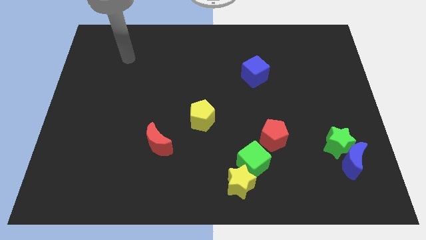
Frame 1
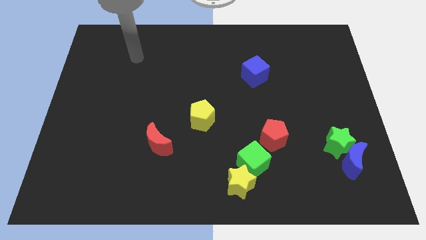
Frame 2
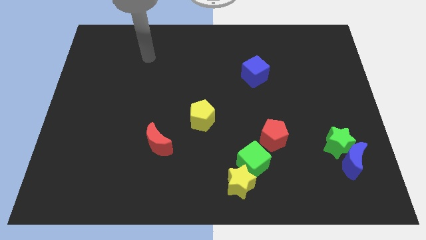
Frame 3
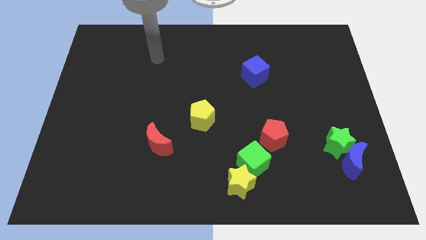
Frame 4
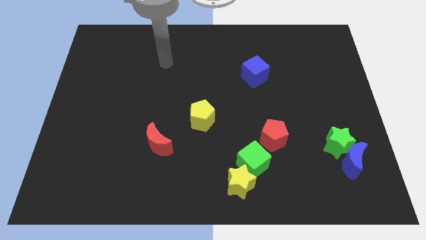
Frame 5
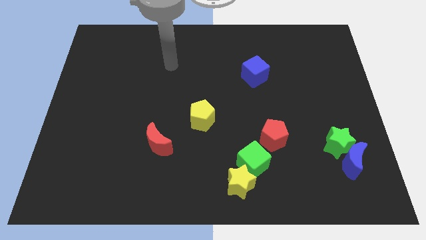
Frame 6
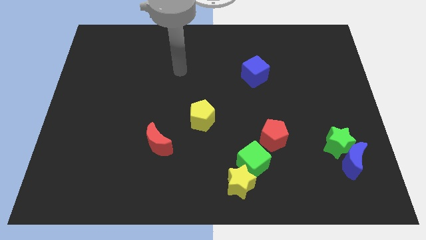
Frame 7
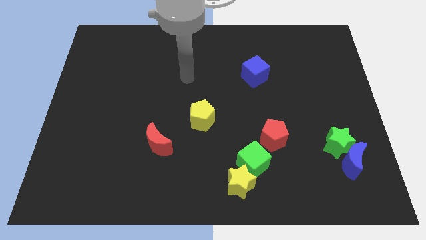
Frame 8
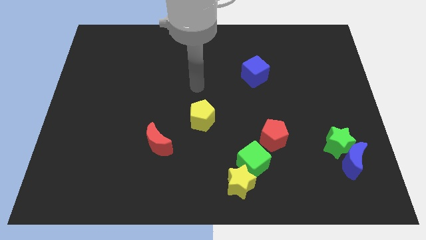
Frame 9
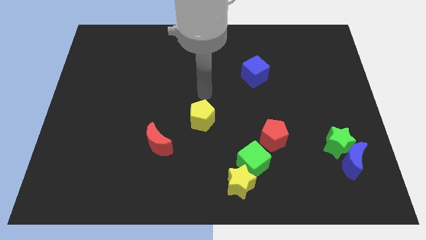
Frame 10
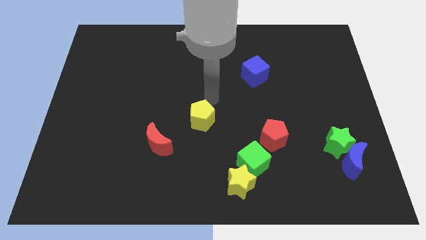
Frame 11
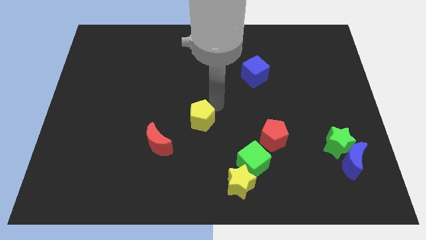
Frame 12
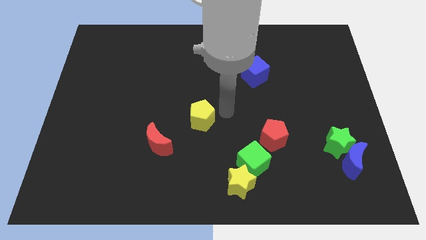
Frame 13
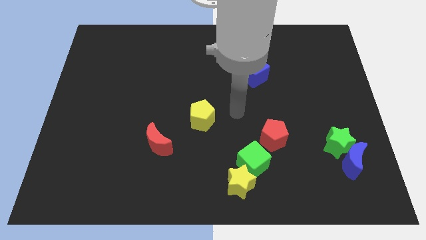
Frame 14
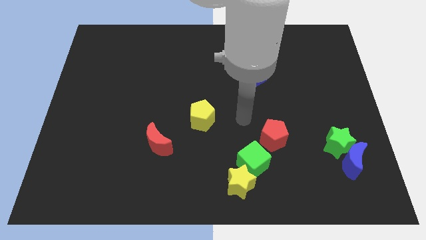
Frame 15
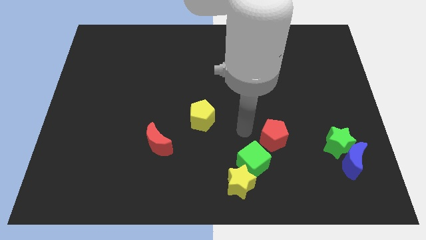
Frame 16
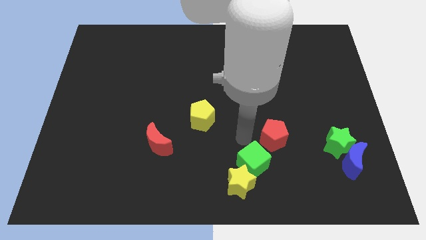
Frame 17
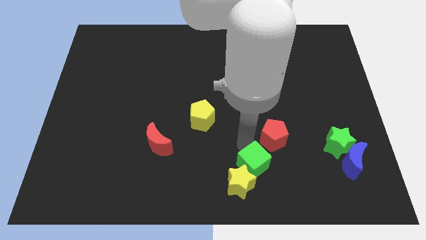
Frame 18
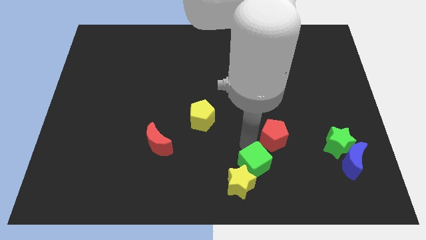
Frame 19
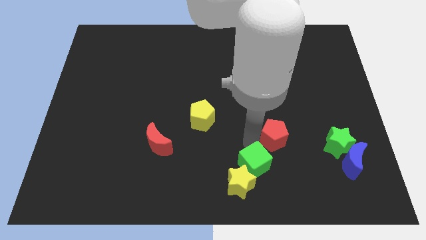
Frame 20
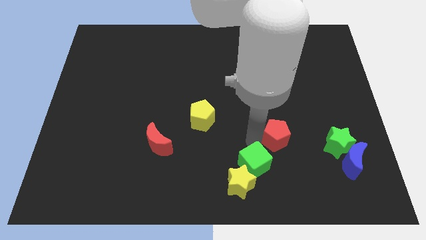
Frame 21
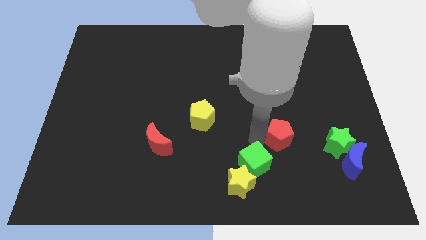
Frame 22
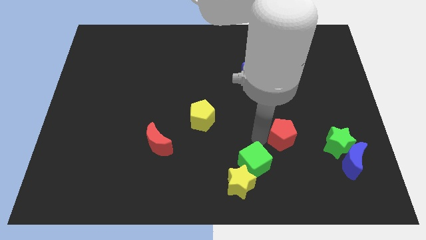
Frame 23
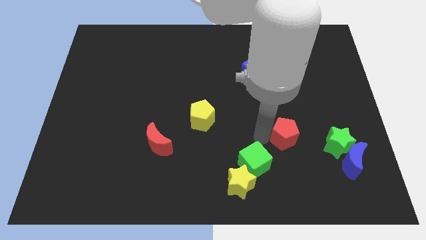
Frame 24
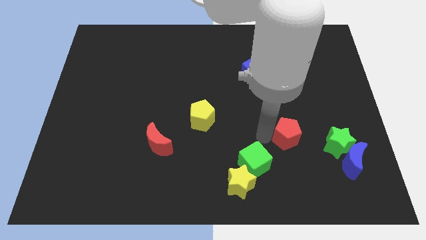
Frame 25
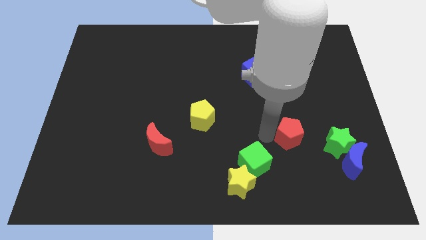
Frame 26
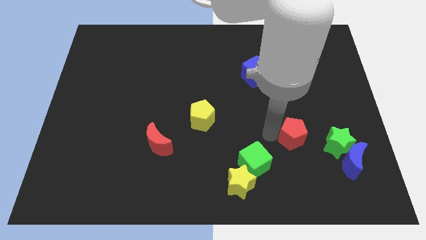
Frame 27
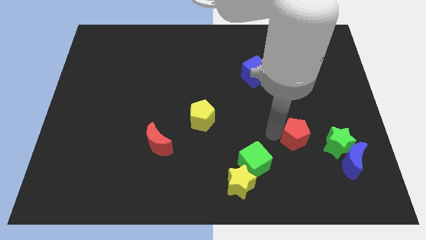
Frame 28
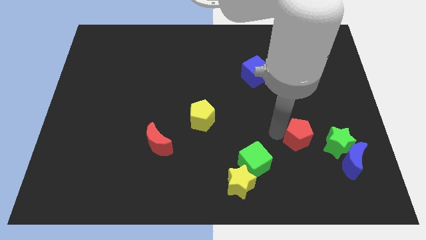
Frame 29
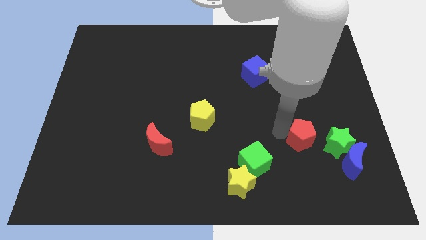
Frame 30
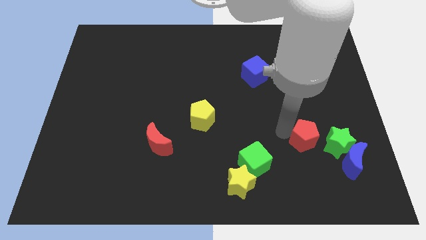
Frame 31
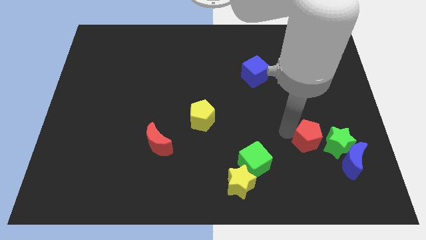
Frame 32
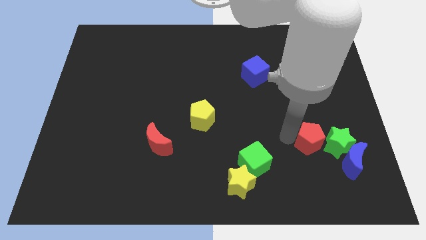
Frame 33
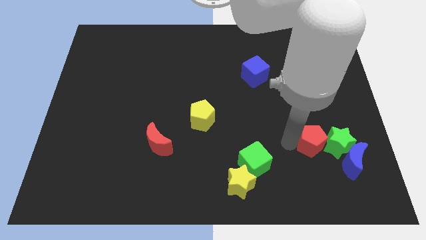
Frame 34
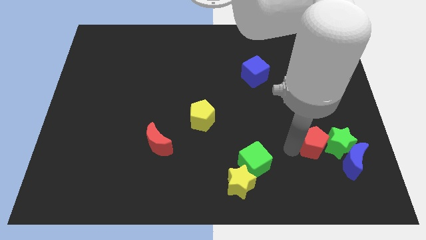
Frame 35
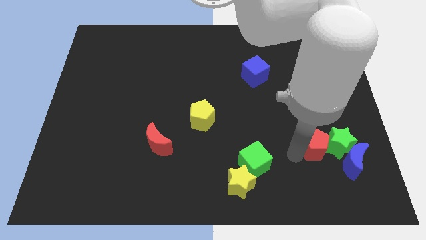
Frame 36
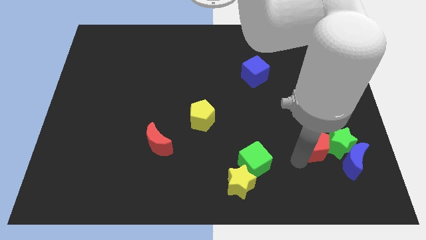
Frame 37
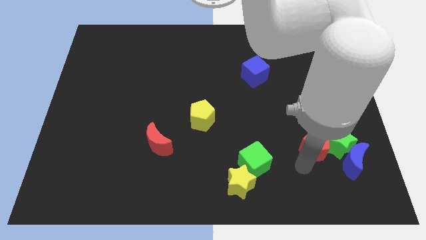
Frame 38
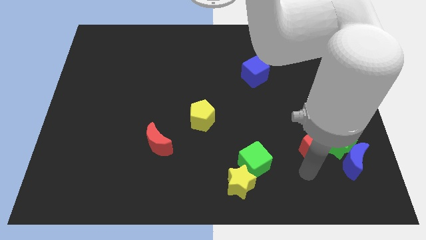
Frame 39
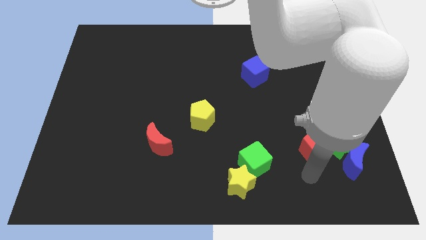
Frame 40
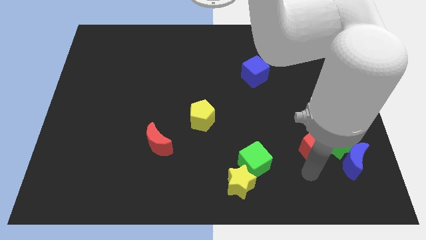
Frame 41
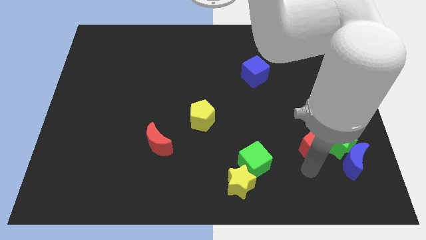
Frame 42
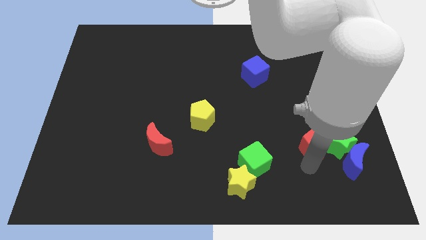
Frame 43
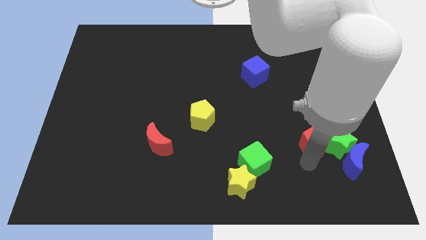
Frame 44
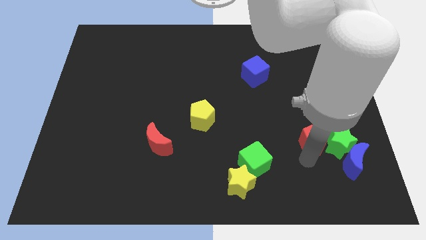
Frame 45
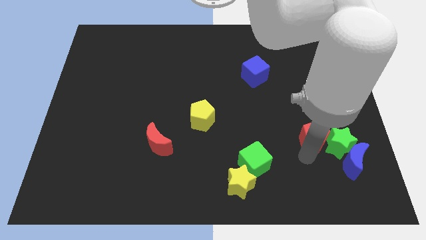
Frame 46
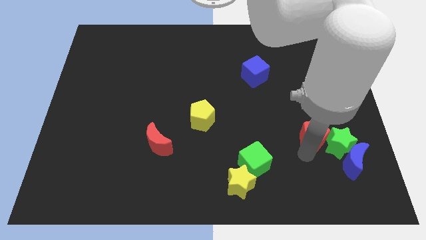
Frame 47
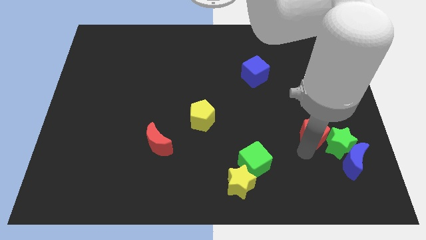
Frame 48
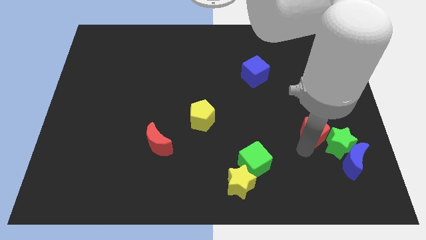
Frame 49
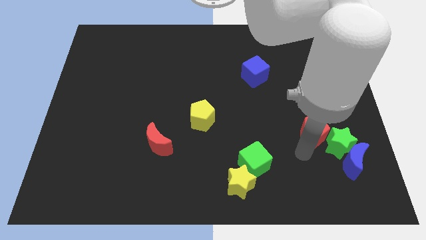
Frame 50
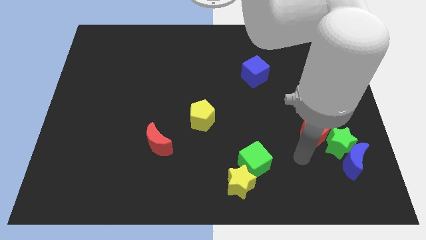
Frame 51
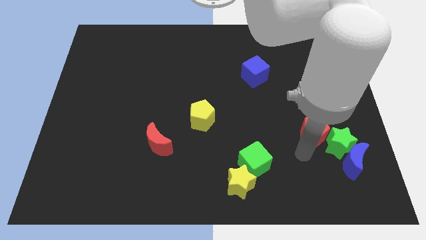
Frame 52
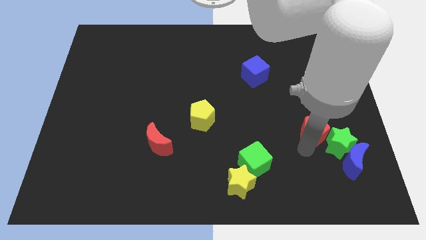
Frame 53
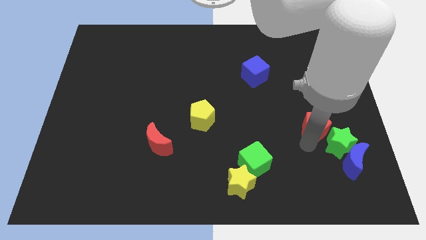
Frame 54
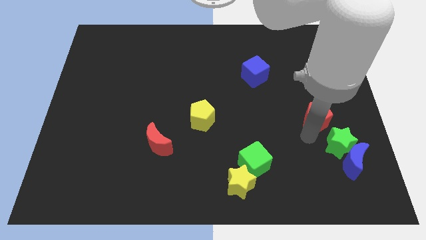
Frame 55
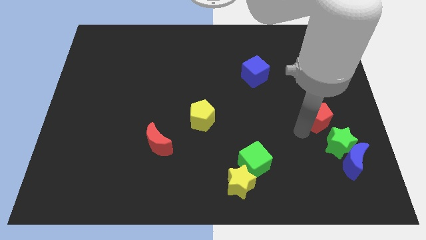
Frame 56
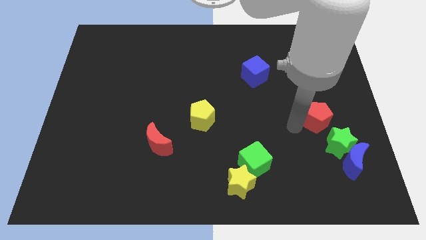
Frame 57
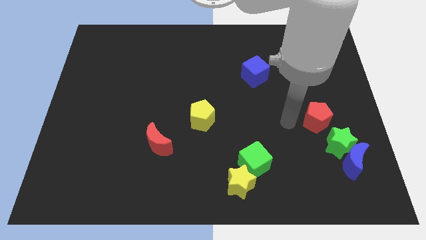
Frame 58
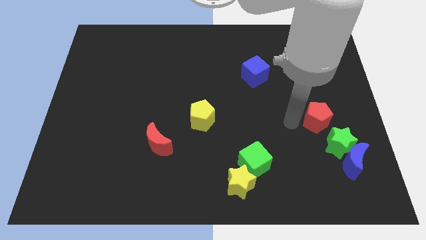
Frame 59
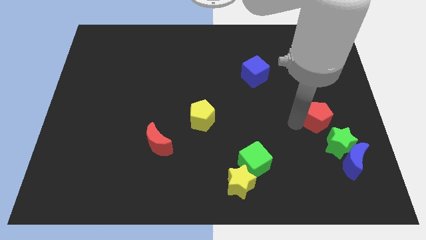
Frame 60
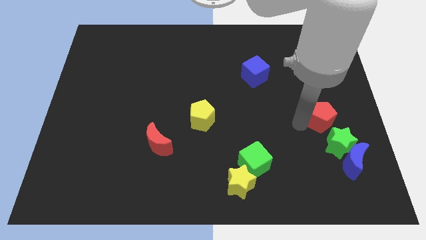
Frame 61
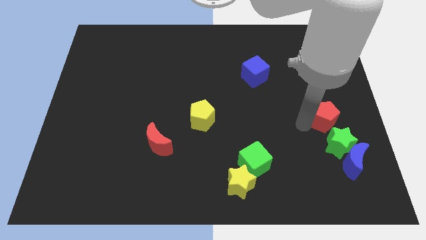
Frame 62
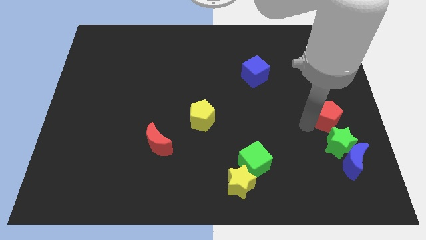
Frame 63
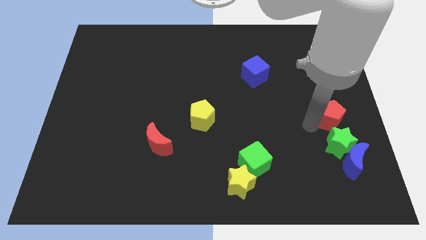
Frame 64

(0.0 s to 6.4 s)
move the red pentagon to the right side

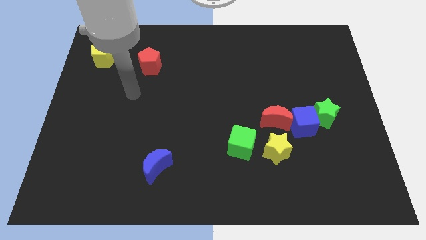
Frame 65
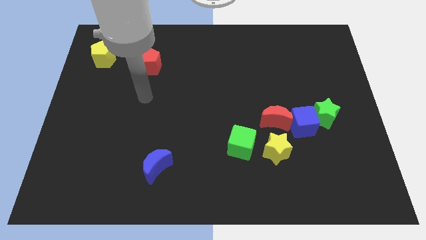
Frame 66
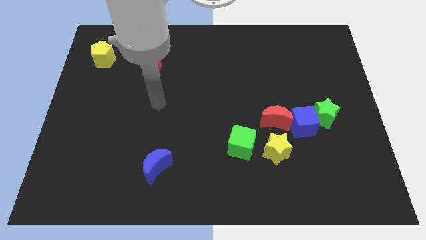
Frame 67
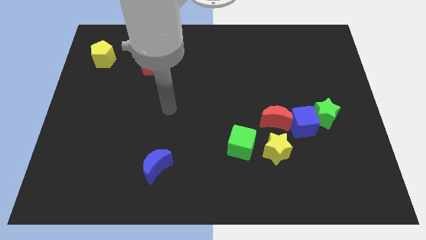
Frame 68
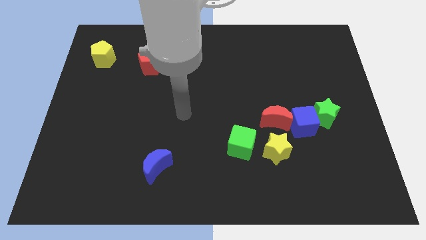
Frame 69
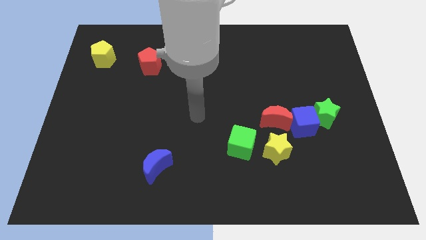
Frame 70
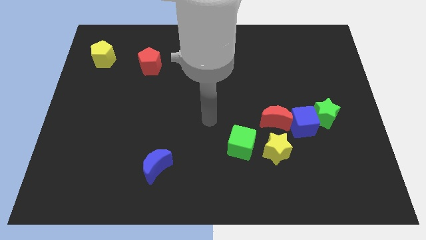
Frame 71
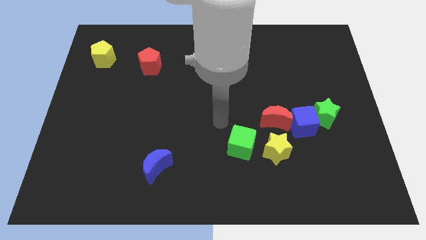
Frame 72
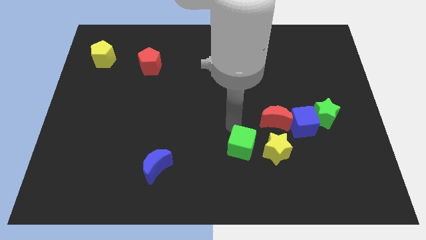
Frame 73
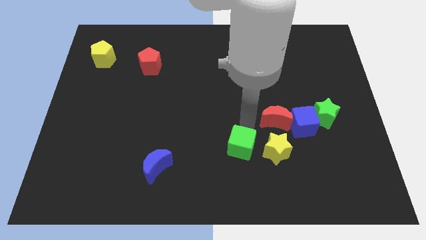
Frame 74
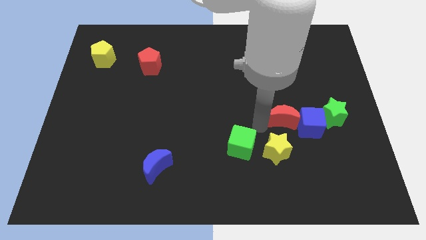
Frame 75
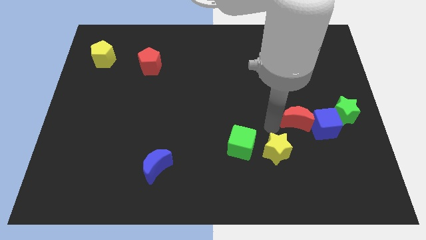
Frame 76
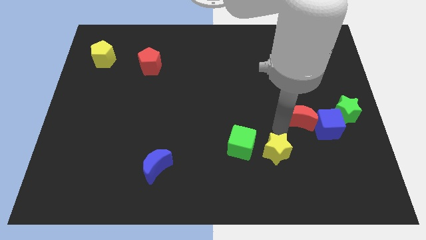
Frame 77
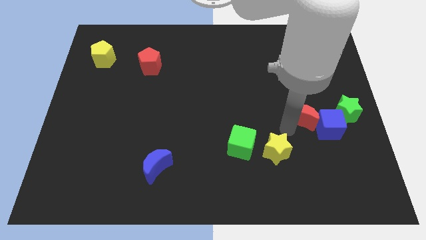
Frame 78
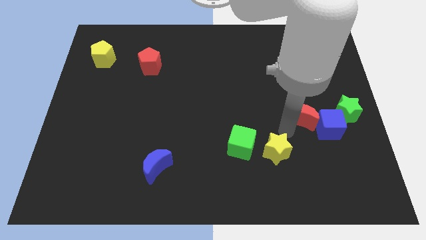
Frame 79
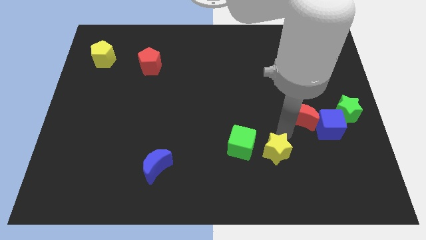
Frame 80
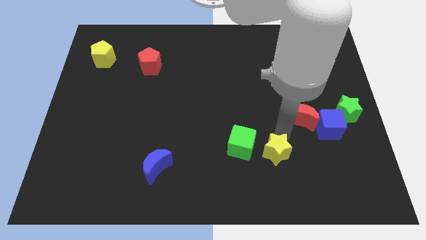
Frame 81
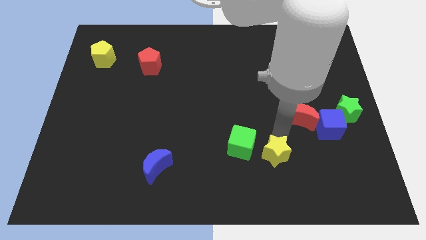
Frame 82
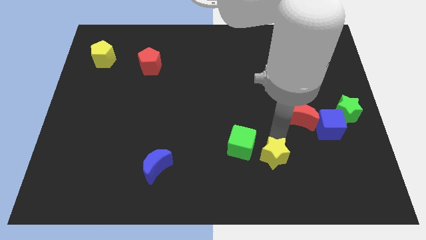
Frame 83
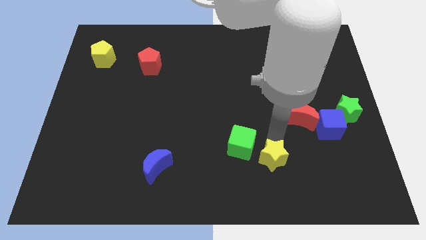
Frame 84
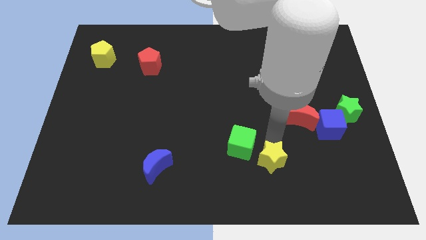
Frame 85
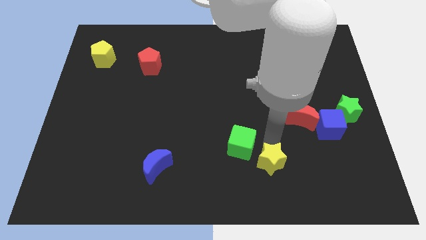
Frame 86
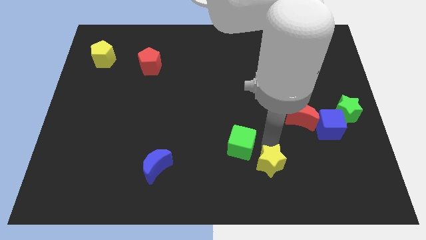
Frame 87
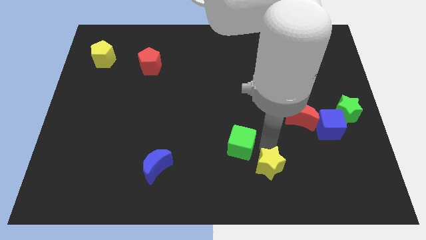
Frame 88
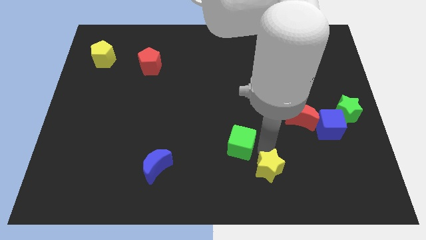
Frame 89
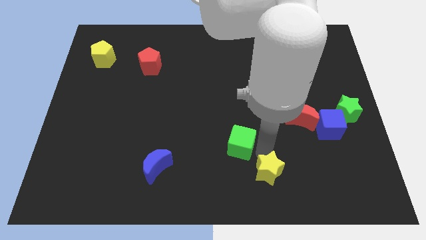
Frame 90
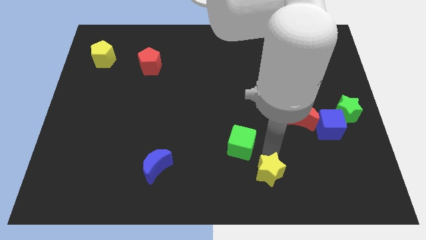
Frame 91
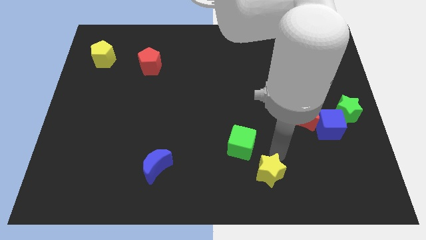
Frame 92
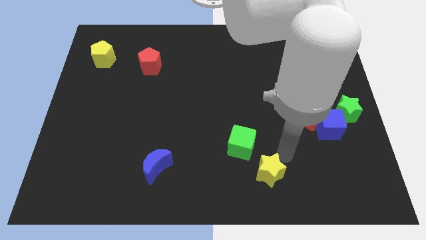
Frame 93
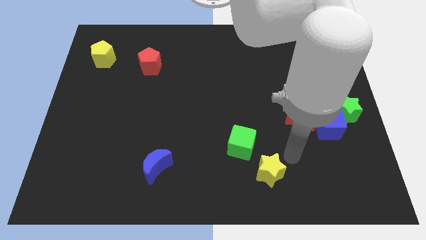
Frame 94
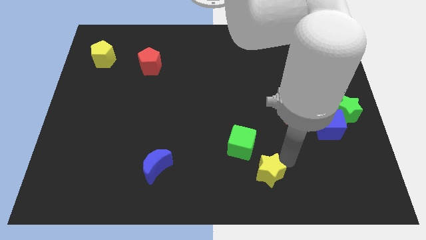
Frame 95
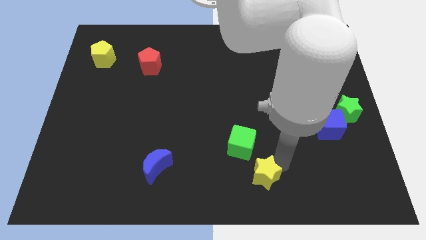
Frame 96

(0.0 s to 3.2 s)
slide the yellow star to the bottom
